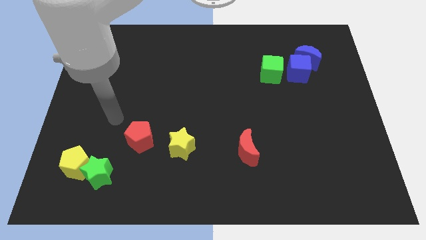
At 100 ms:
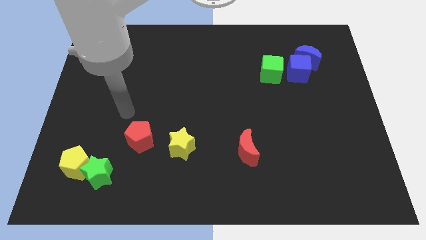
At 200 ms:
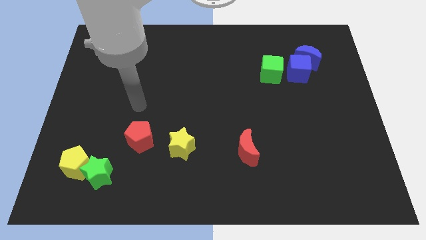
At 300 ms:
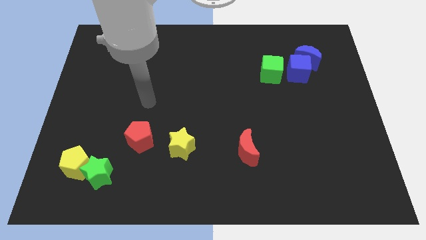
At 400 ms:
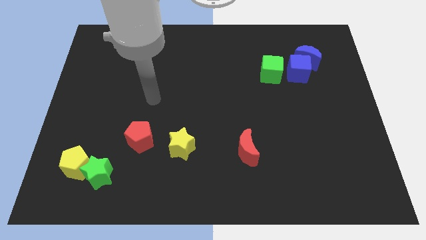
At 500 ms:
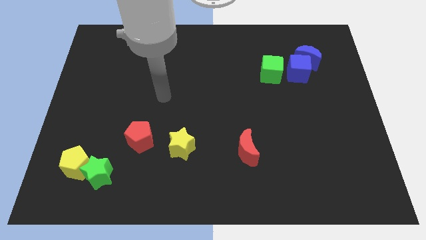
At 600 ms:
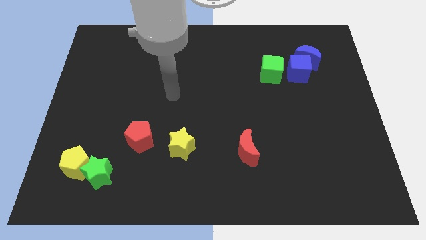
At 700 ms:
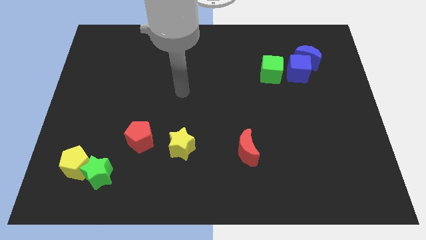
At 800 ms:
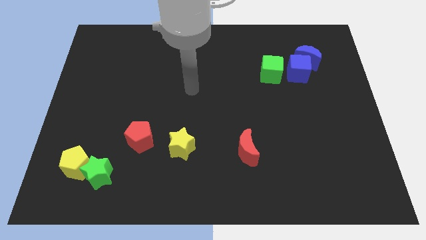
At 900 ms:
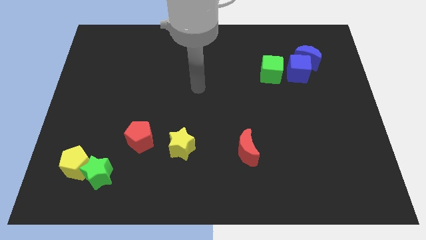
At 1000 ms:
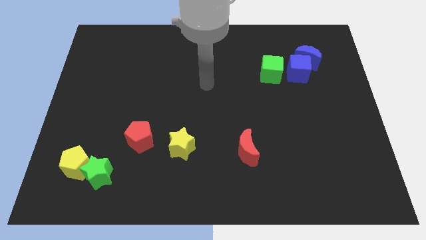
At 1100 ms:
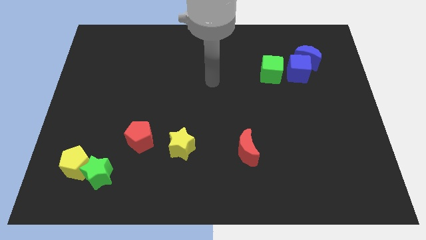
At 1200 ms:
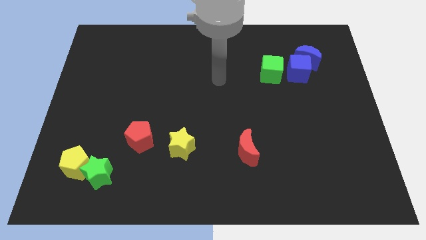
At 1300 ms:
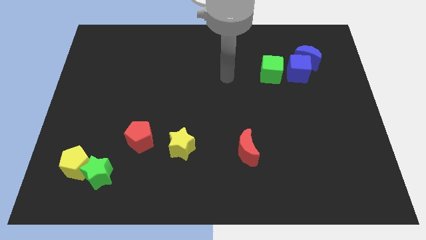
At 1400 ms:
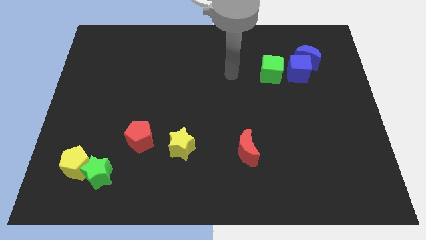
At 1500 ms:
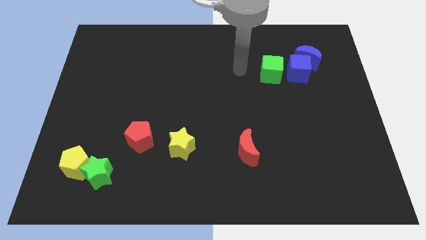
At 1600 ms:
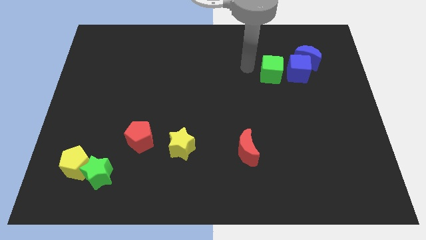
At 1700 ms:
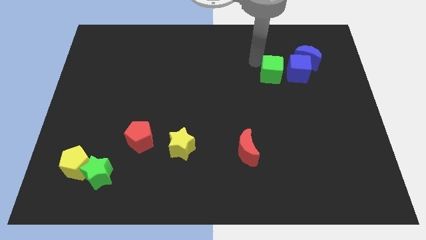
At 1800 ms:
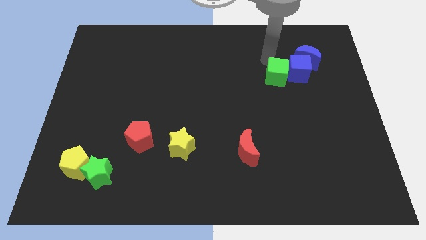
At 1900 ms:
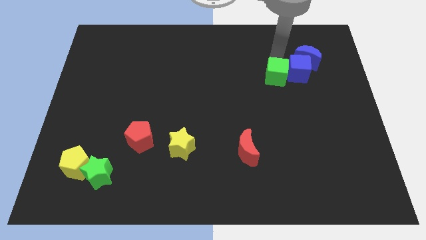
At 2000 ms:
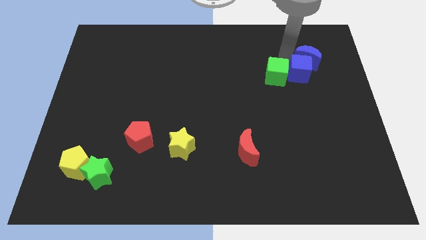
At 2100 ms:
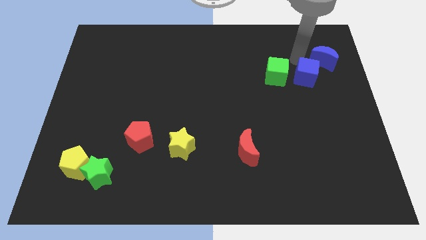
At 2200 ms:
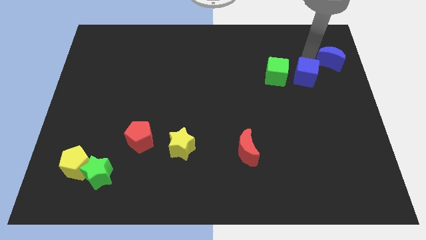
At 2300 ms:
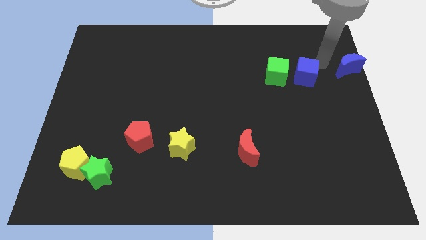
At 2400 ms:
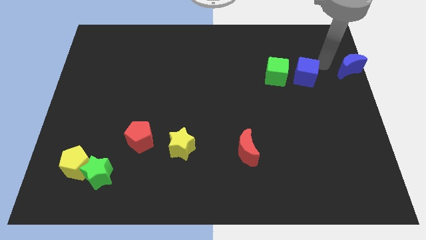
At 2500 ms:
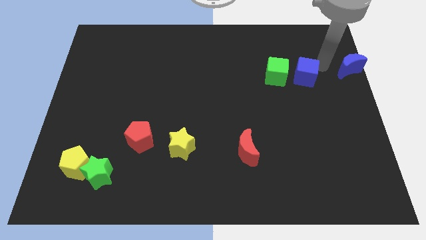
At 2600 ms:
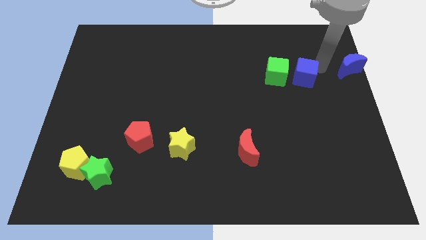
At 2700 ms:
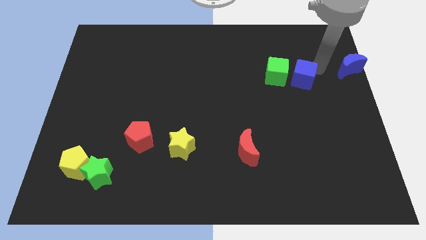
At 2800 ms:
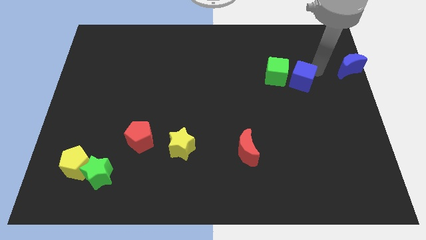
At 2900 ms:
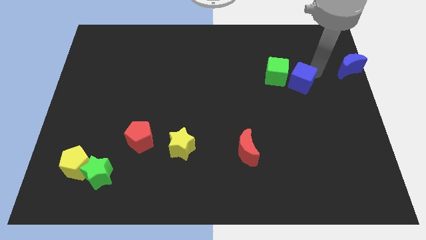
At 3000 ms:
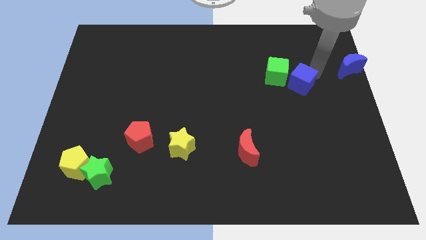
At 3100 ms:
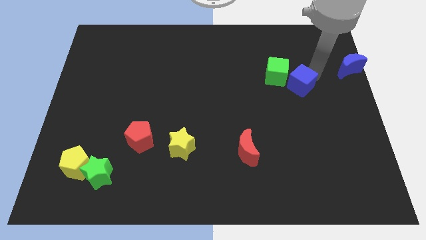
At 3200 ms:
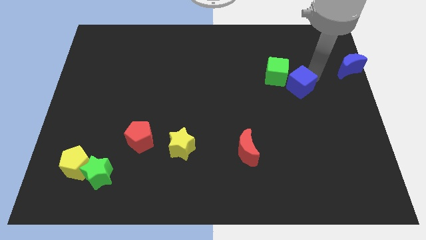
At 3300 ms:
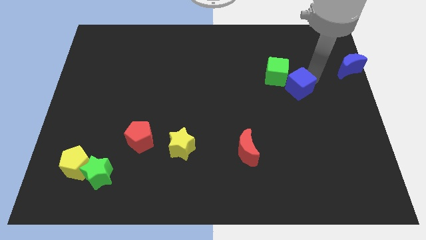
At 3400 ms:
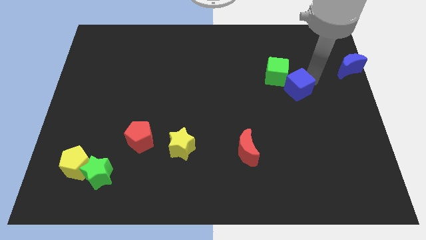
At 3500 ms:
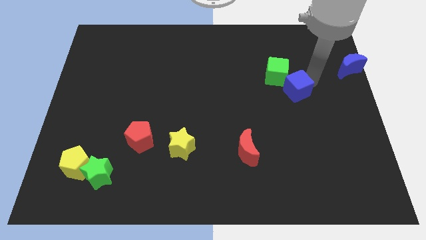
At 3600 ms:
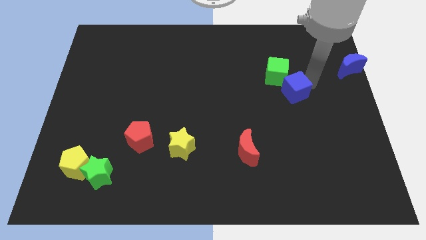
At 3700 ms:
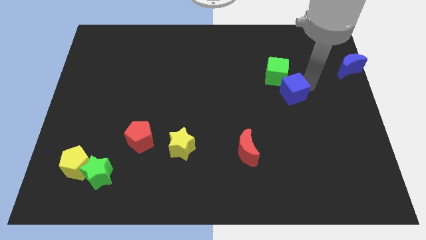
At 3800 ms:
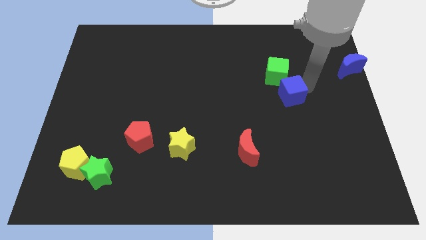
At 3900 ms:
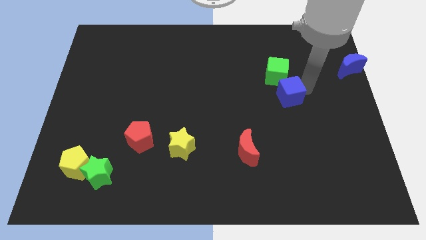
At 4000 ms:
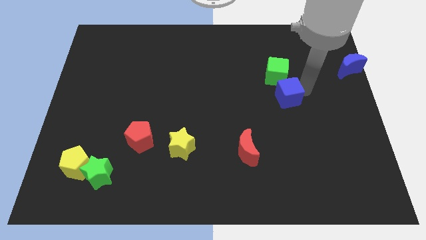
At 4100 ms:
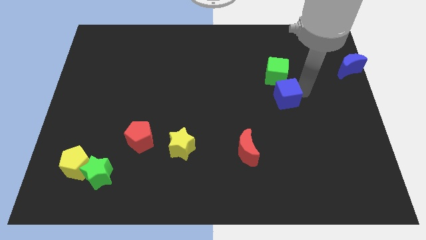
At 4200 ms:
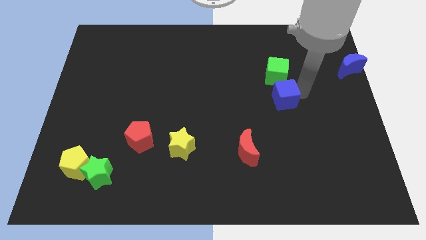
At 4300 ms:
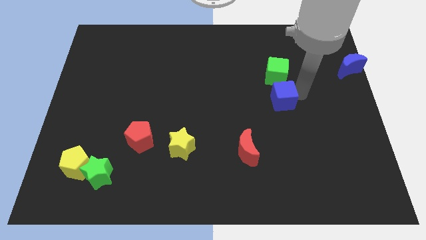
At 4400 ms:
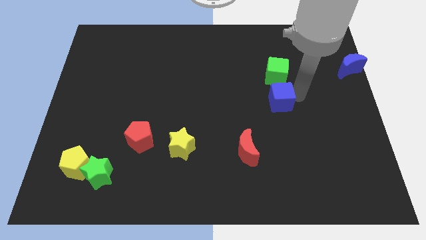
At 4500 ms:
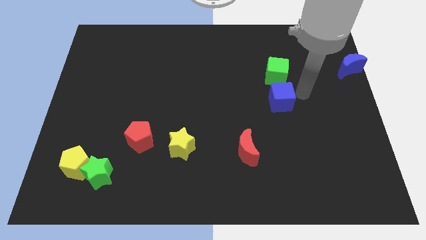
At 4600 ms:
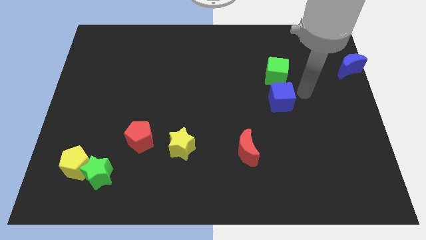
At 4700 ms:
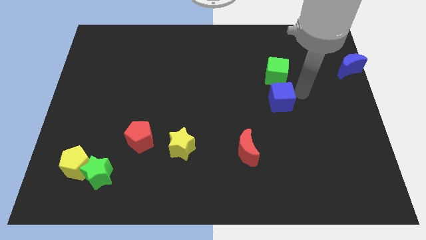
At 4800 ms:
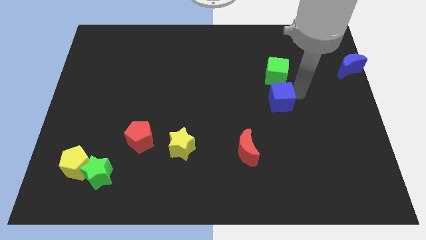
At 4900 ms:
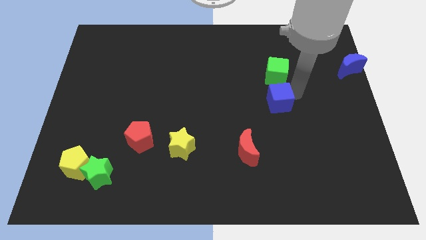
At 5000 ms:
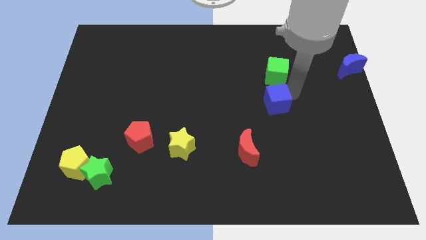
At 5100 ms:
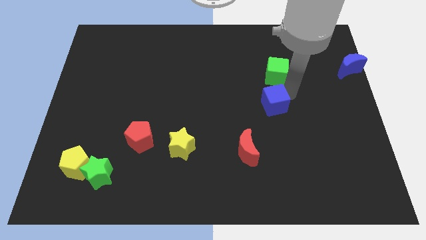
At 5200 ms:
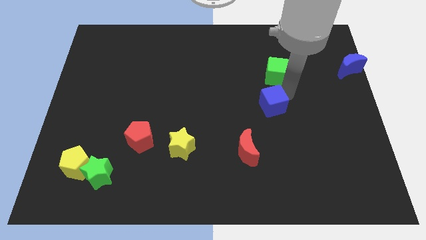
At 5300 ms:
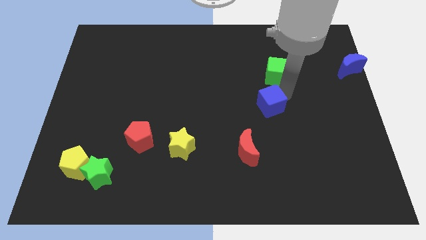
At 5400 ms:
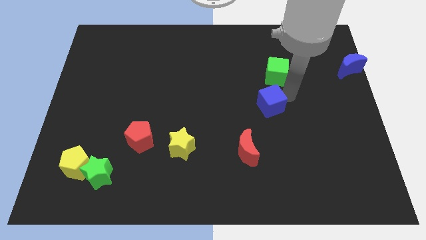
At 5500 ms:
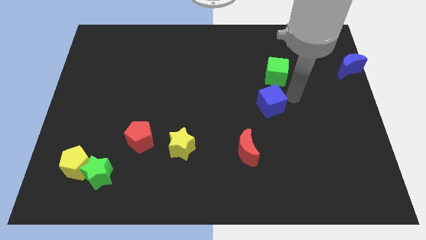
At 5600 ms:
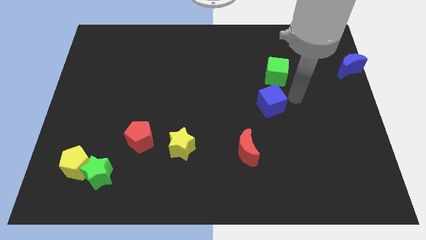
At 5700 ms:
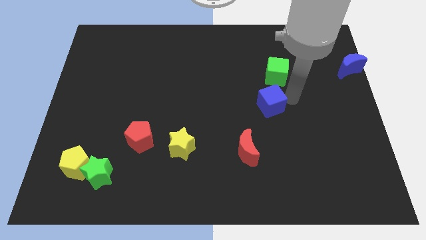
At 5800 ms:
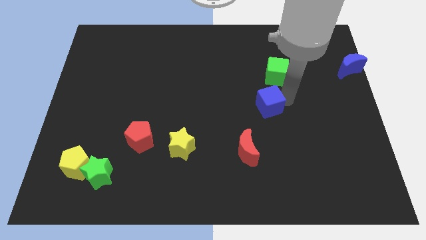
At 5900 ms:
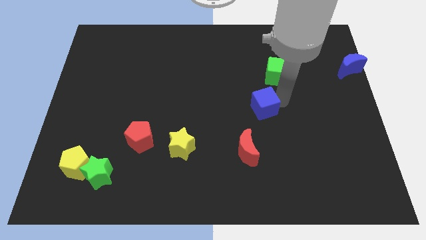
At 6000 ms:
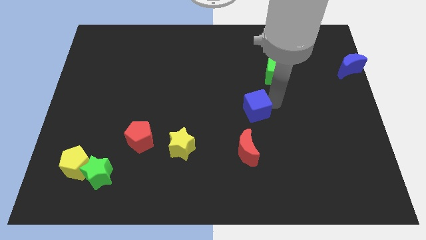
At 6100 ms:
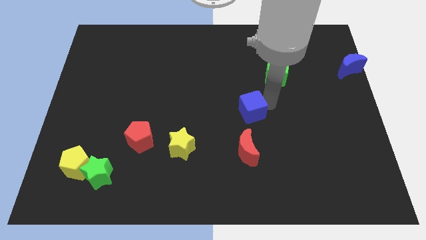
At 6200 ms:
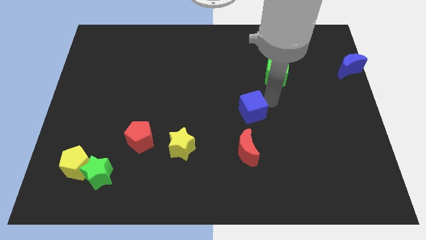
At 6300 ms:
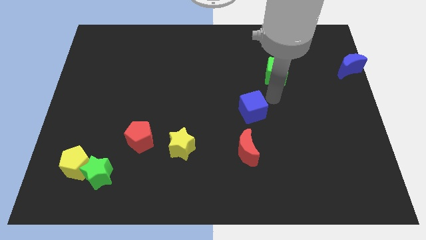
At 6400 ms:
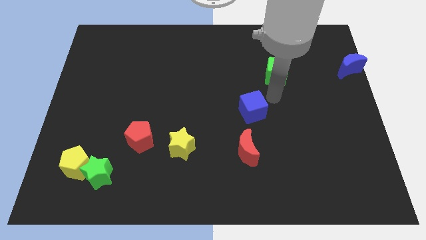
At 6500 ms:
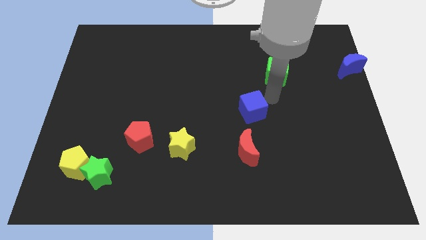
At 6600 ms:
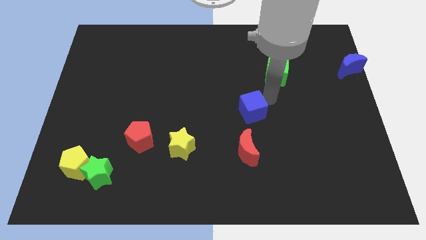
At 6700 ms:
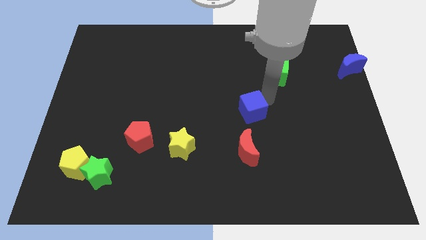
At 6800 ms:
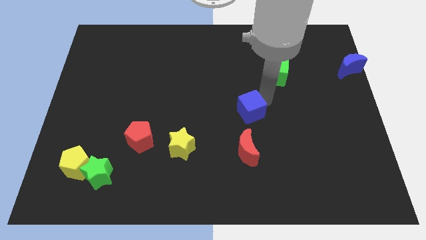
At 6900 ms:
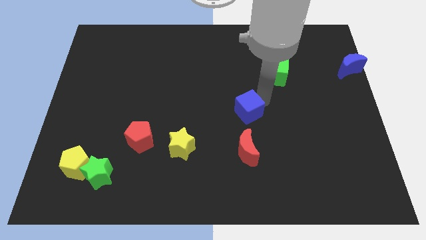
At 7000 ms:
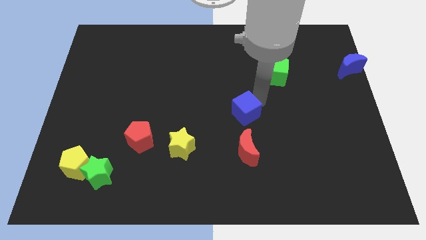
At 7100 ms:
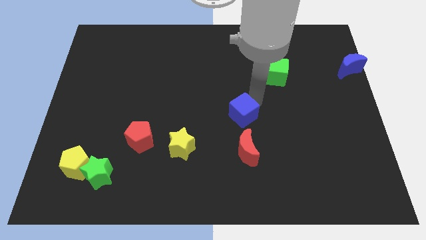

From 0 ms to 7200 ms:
slide the blue cube diagonally downwards and left

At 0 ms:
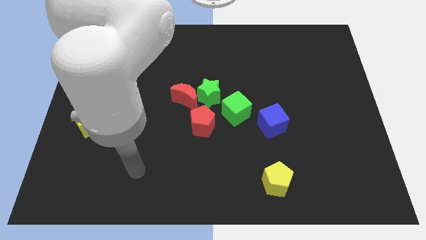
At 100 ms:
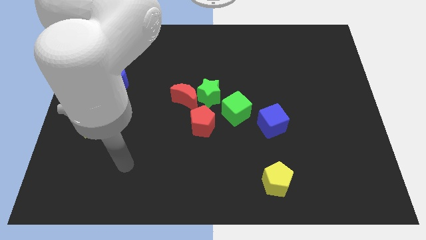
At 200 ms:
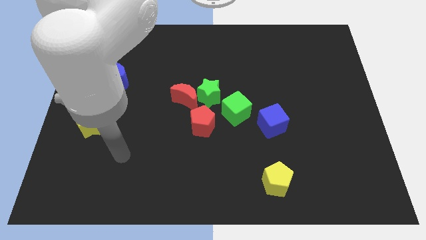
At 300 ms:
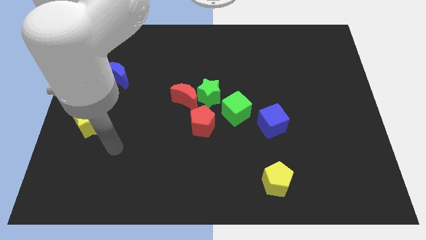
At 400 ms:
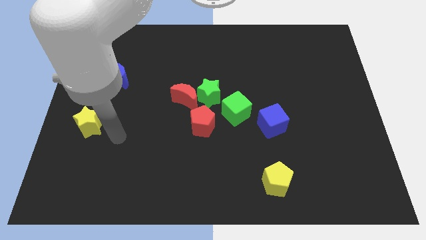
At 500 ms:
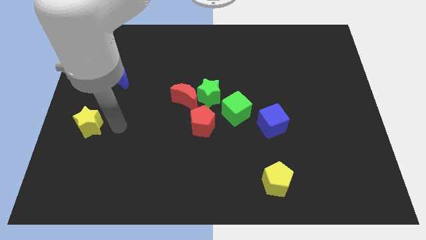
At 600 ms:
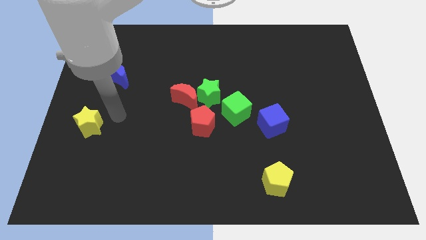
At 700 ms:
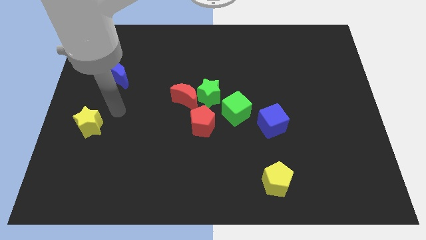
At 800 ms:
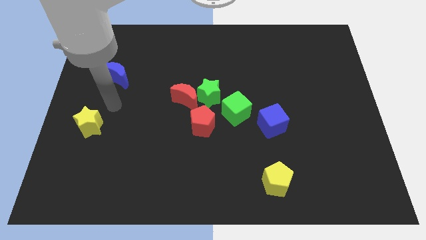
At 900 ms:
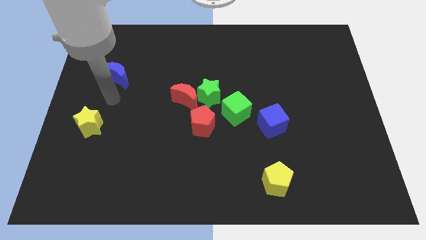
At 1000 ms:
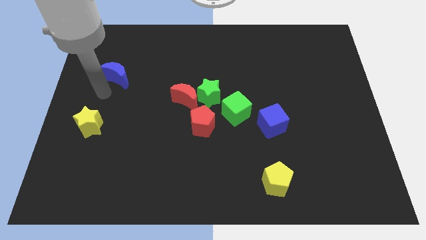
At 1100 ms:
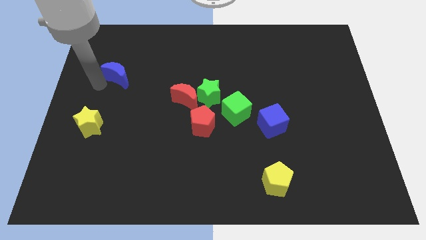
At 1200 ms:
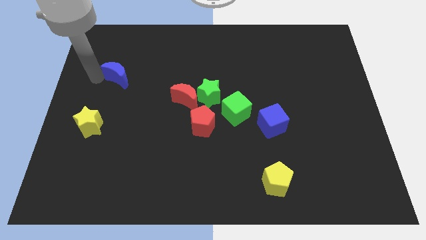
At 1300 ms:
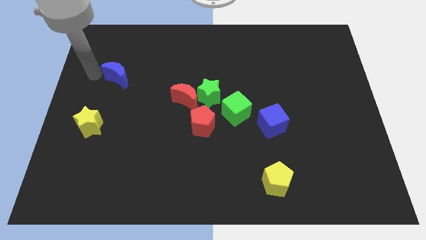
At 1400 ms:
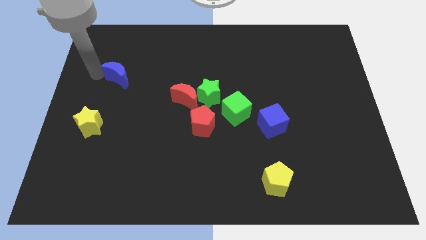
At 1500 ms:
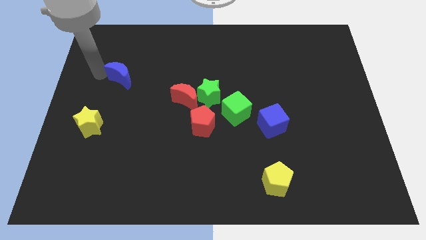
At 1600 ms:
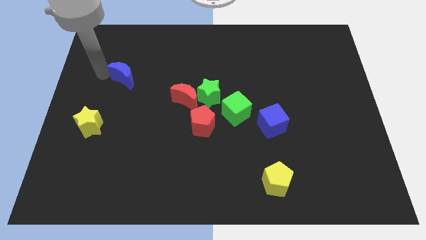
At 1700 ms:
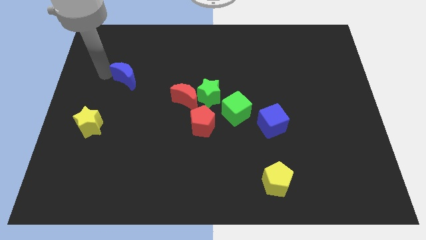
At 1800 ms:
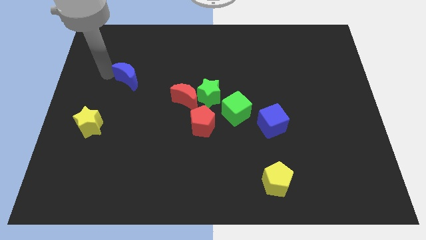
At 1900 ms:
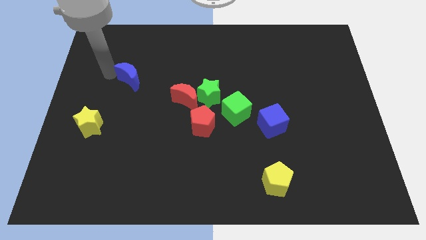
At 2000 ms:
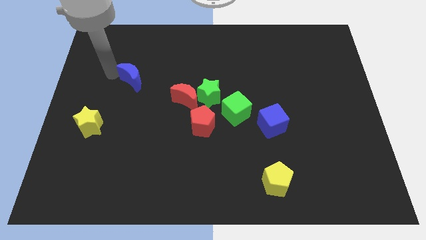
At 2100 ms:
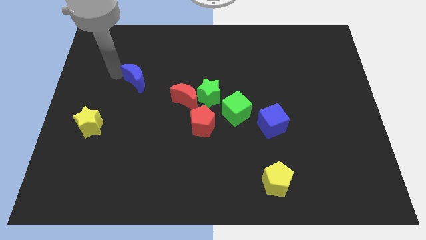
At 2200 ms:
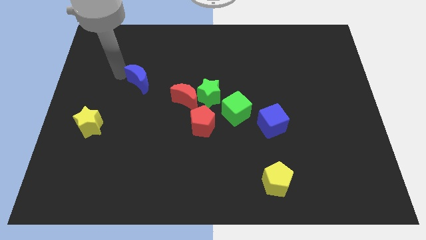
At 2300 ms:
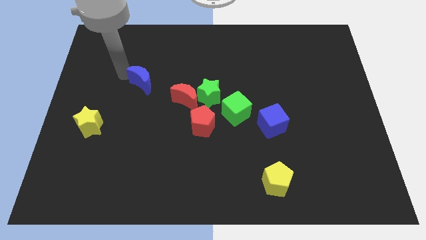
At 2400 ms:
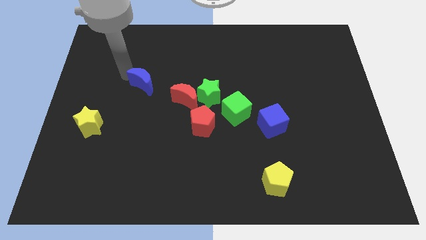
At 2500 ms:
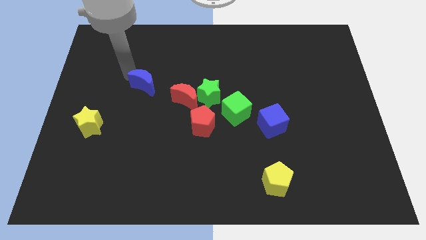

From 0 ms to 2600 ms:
slightly move the blue moon to the right
